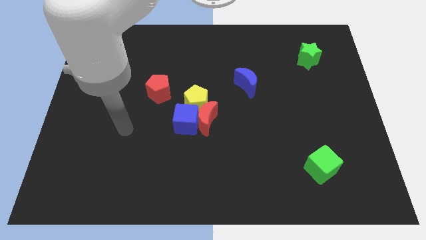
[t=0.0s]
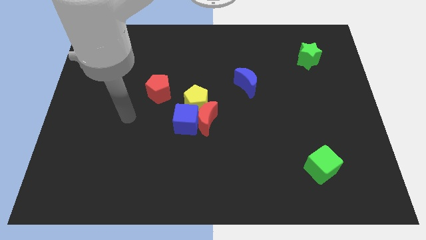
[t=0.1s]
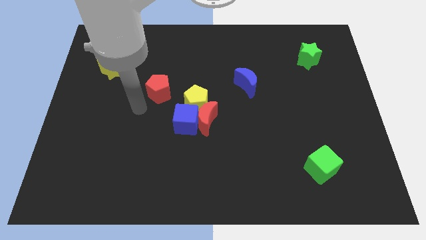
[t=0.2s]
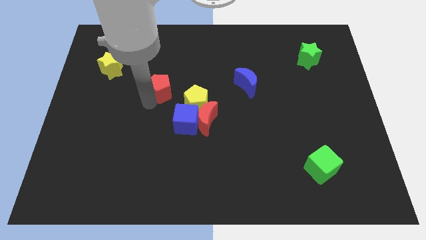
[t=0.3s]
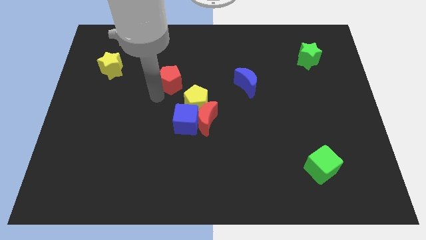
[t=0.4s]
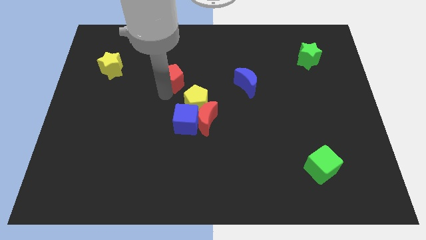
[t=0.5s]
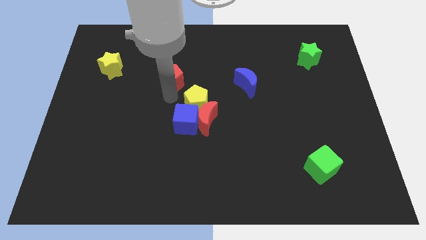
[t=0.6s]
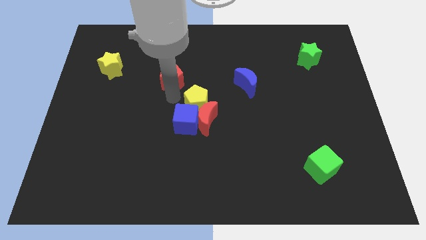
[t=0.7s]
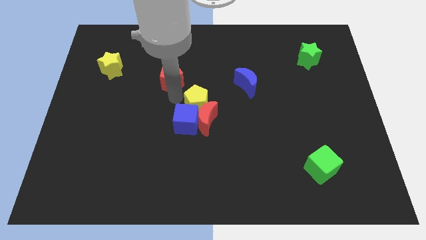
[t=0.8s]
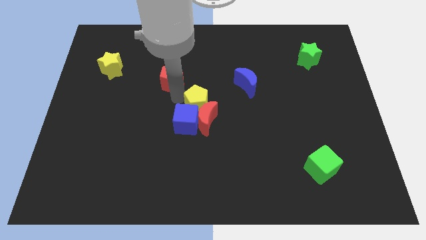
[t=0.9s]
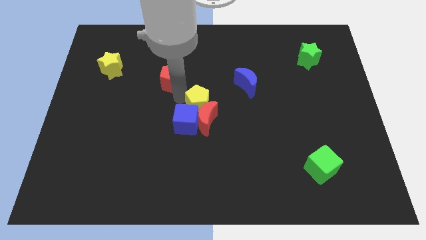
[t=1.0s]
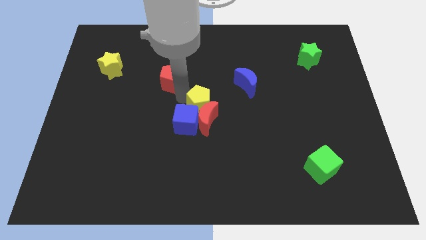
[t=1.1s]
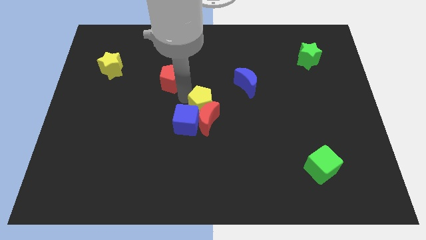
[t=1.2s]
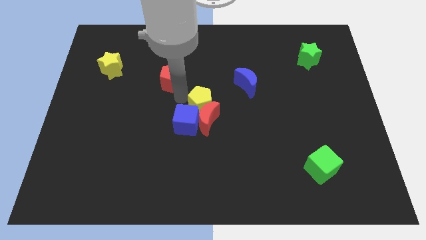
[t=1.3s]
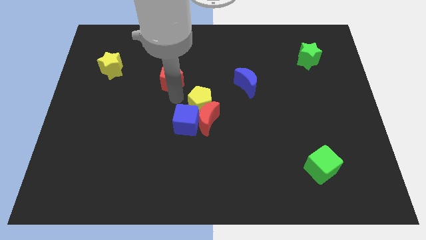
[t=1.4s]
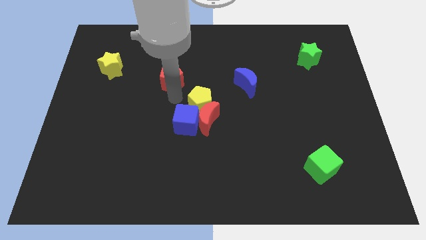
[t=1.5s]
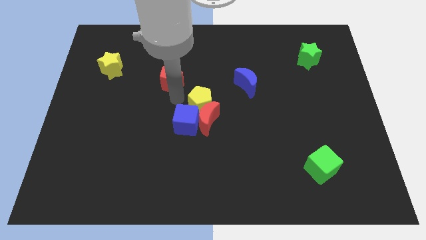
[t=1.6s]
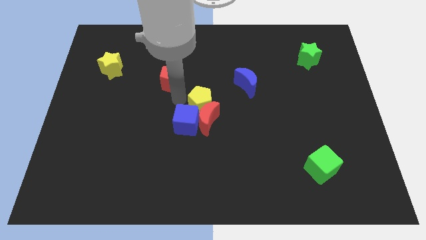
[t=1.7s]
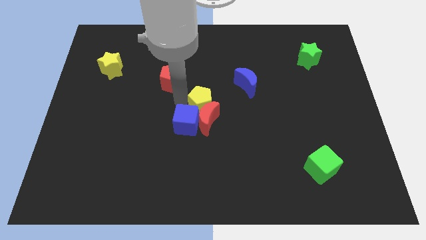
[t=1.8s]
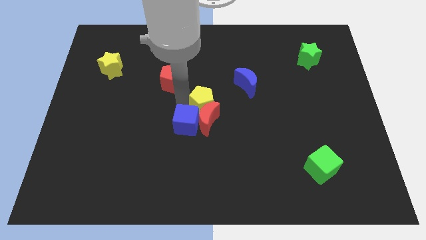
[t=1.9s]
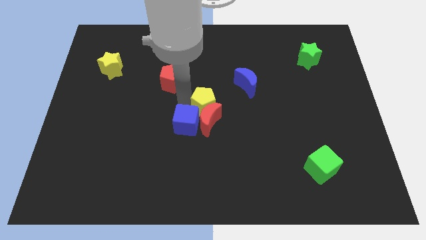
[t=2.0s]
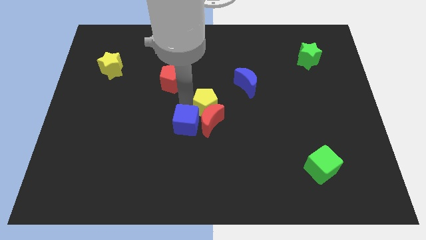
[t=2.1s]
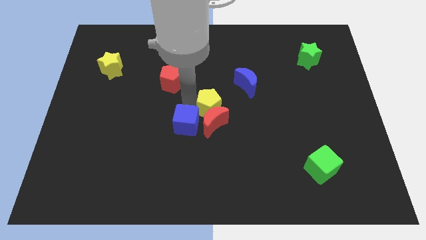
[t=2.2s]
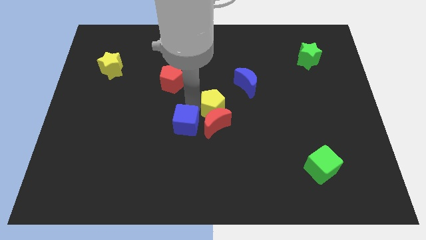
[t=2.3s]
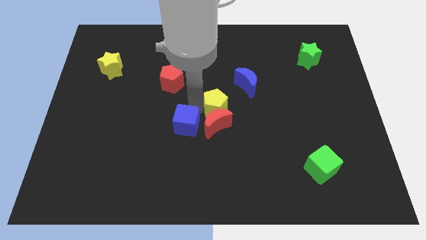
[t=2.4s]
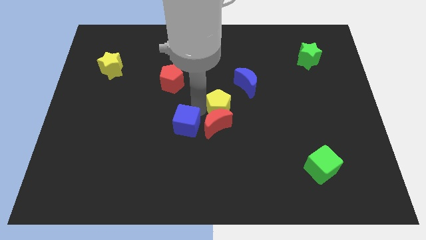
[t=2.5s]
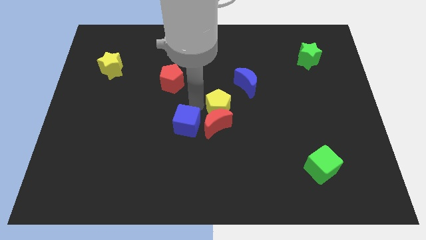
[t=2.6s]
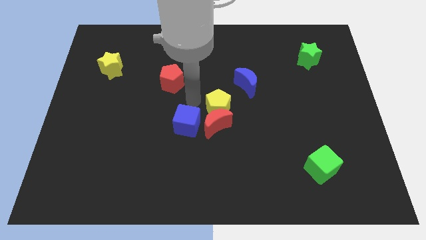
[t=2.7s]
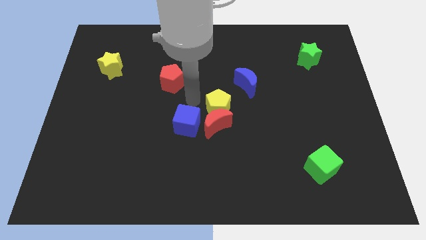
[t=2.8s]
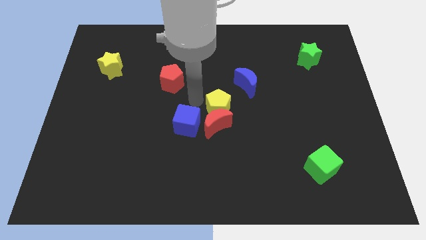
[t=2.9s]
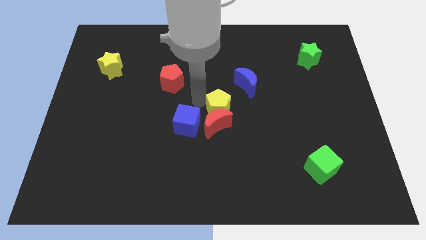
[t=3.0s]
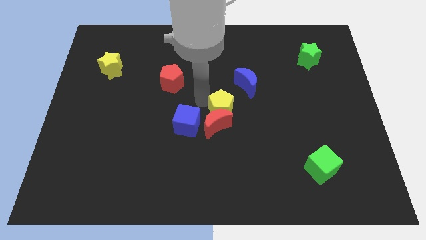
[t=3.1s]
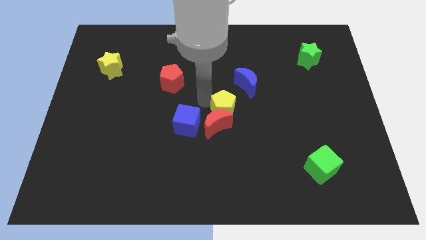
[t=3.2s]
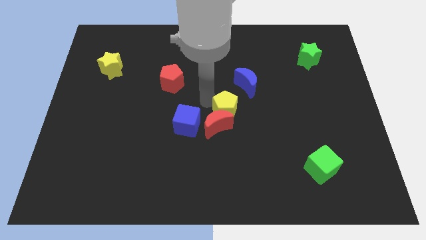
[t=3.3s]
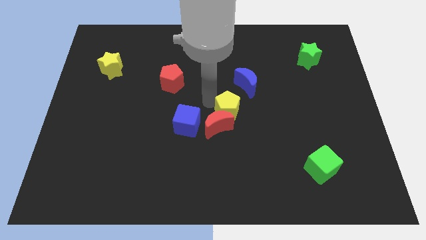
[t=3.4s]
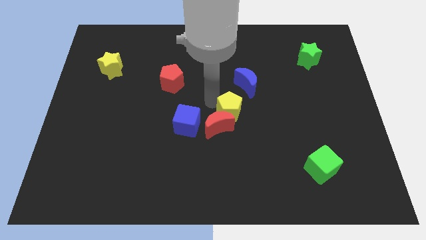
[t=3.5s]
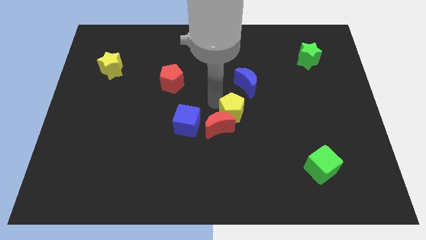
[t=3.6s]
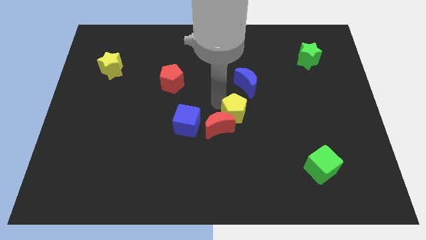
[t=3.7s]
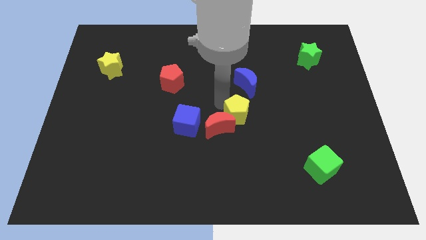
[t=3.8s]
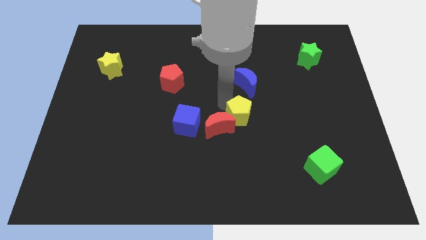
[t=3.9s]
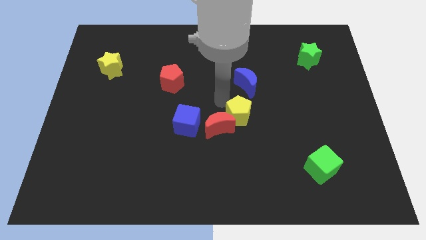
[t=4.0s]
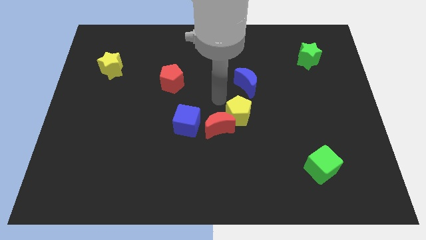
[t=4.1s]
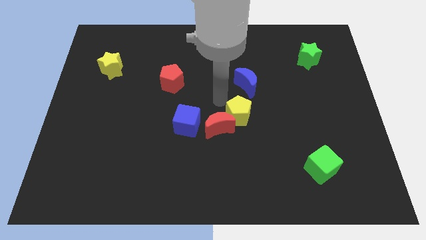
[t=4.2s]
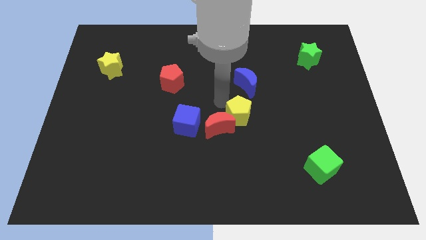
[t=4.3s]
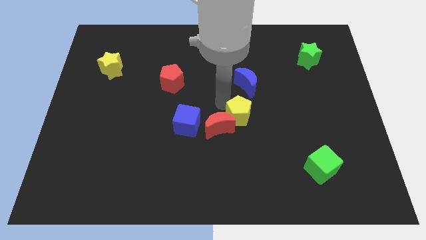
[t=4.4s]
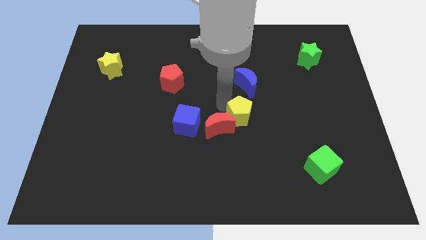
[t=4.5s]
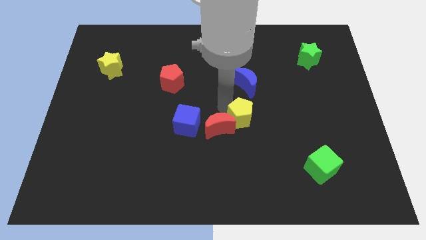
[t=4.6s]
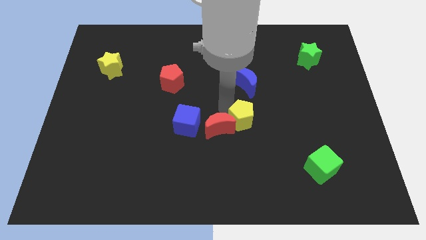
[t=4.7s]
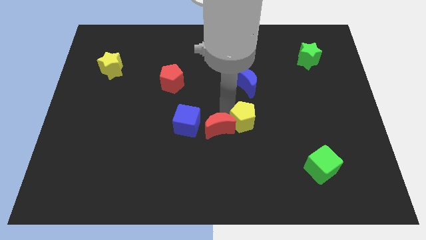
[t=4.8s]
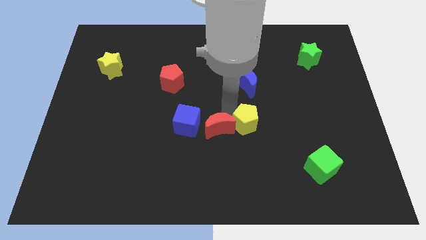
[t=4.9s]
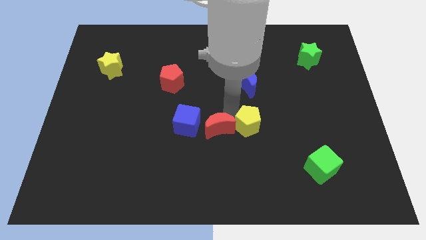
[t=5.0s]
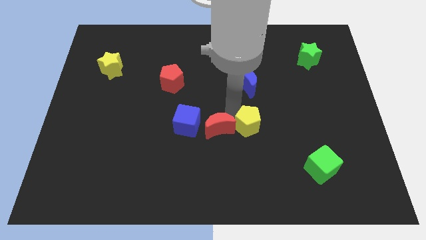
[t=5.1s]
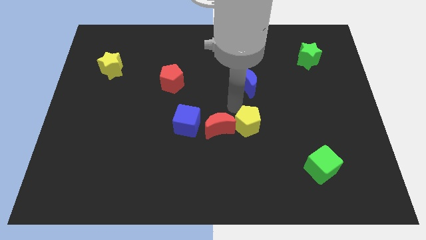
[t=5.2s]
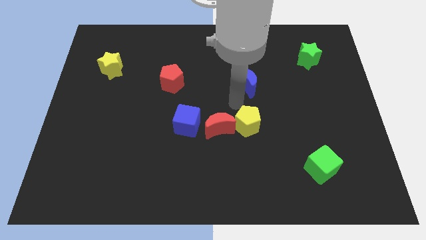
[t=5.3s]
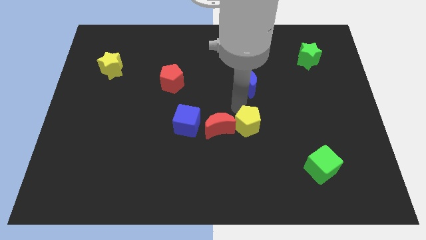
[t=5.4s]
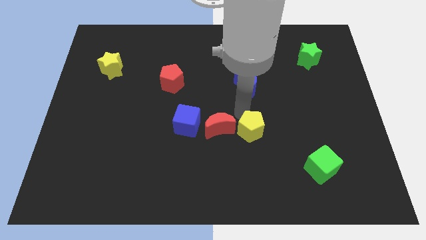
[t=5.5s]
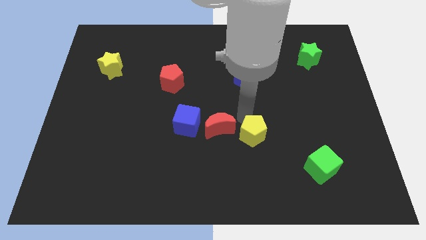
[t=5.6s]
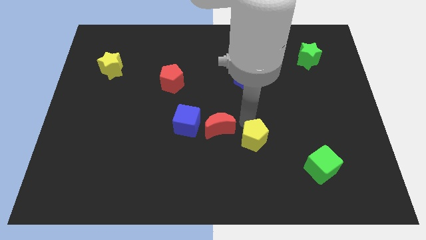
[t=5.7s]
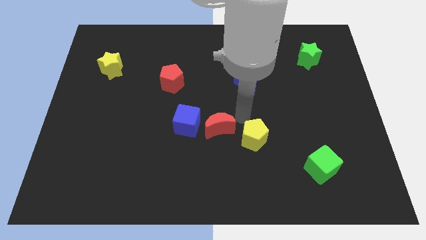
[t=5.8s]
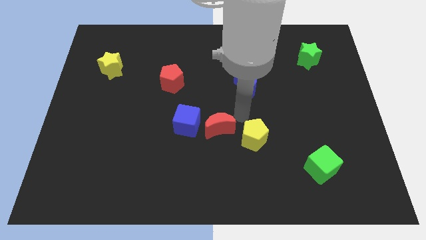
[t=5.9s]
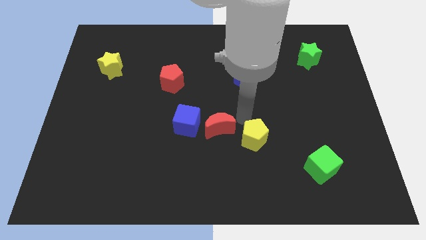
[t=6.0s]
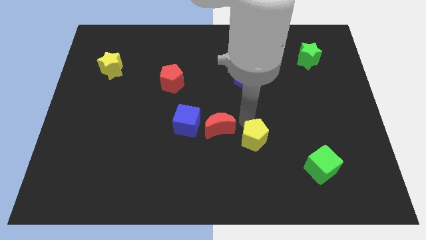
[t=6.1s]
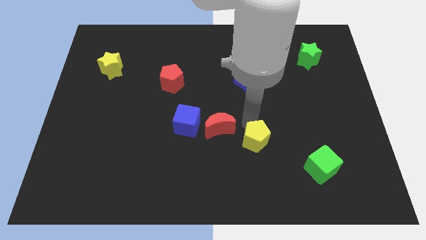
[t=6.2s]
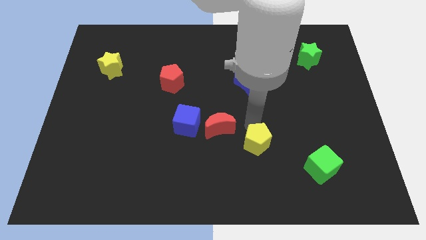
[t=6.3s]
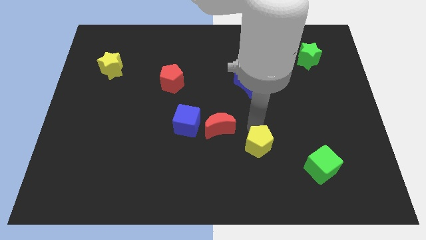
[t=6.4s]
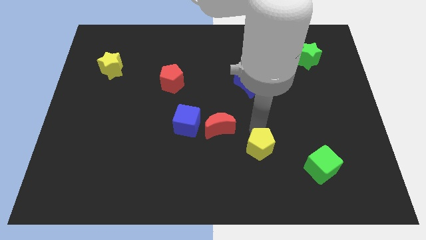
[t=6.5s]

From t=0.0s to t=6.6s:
slide the yellow pentagon to the left of the green cube

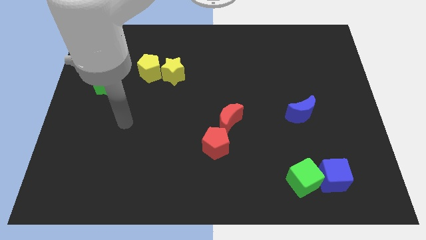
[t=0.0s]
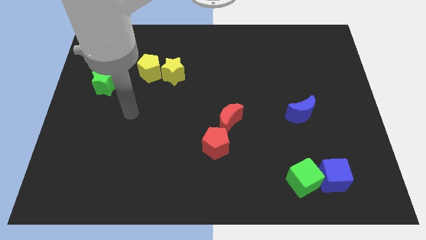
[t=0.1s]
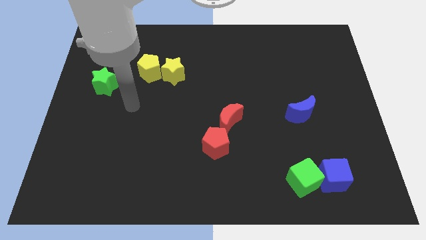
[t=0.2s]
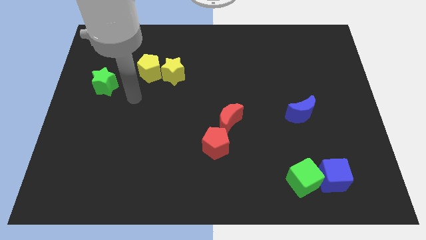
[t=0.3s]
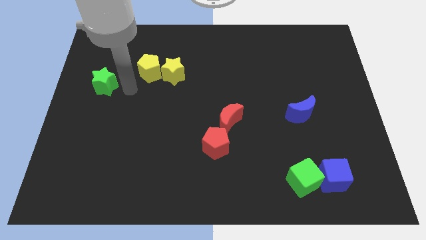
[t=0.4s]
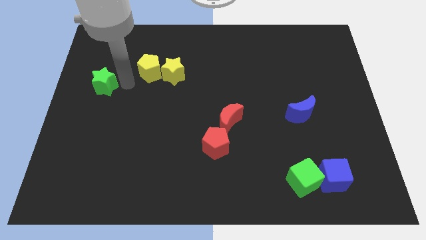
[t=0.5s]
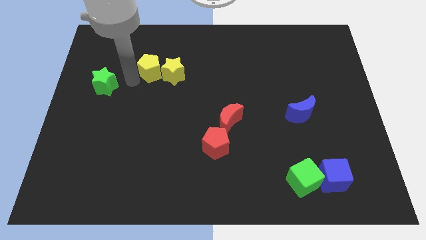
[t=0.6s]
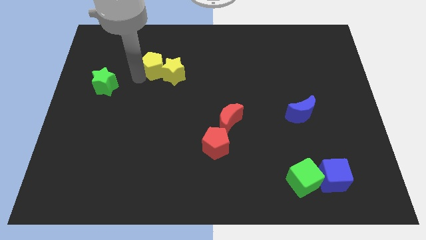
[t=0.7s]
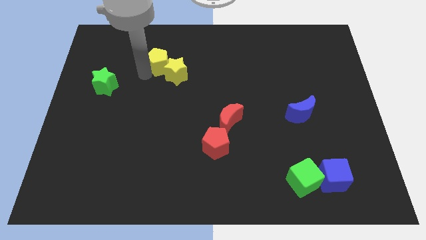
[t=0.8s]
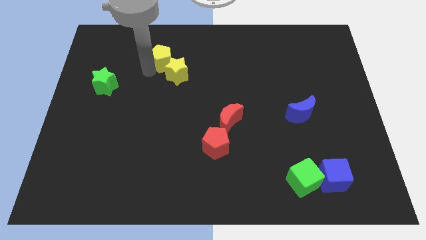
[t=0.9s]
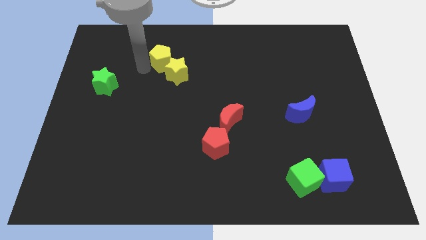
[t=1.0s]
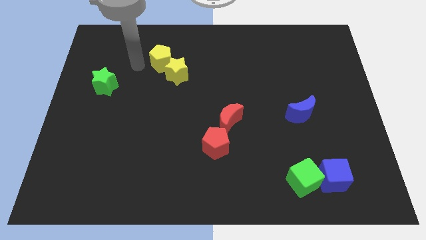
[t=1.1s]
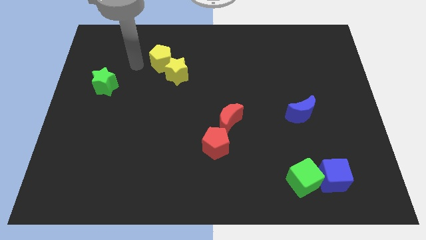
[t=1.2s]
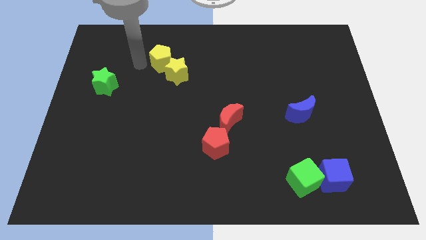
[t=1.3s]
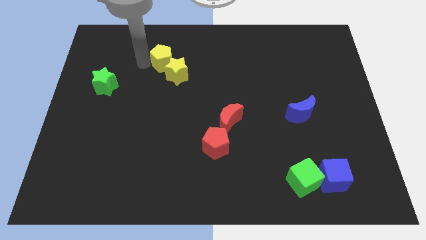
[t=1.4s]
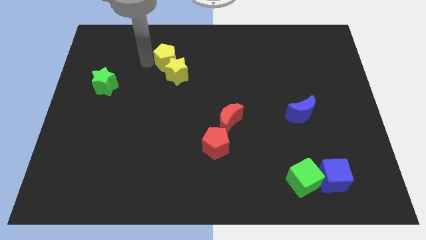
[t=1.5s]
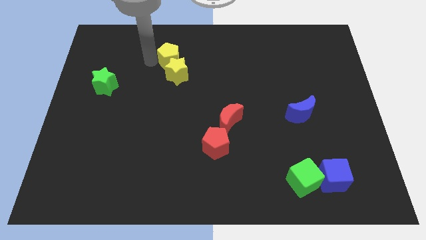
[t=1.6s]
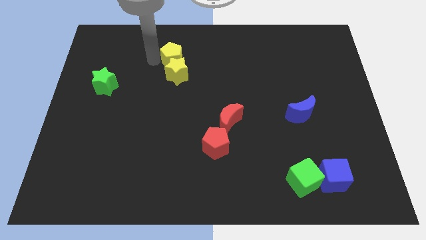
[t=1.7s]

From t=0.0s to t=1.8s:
slide the yellow pentagon to the top right of the yellow star
